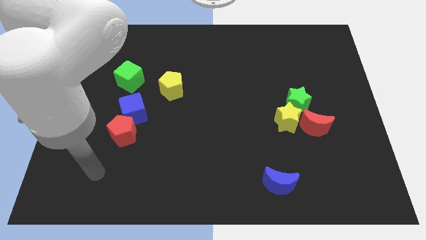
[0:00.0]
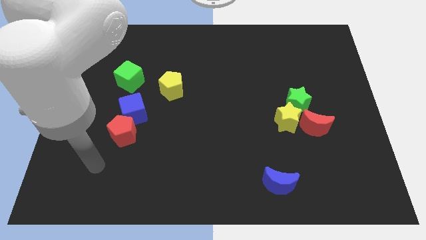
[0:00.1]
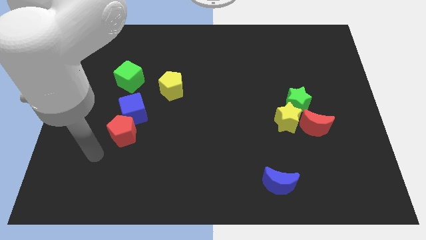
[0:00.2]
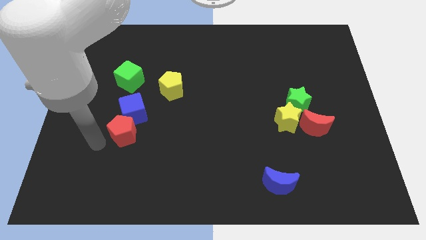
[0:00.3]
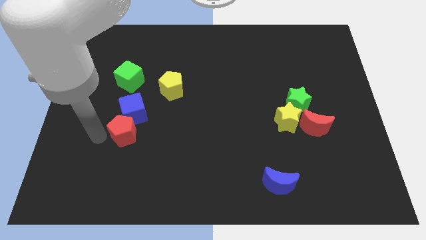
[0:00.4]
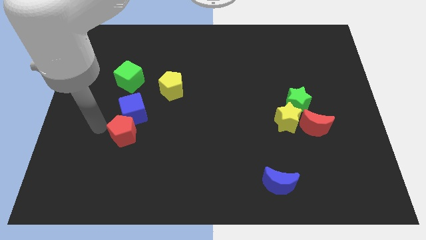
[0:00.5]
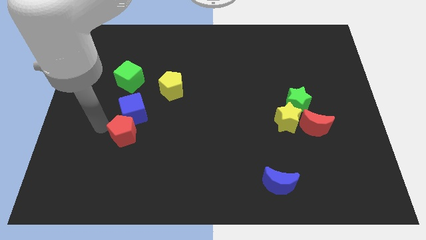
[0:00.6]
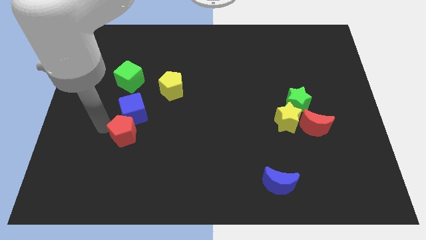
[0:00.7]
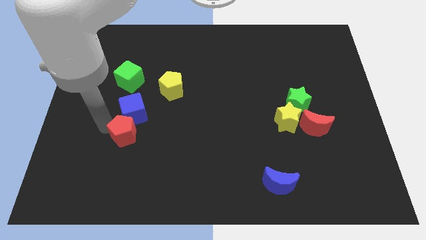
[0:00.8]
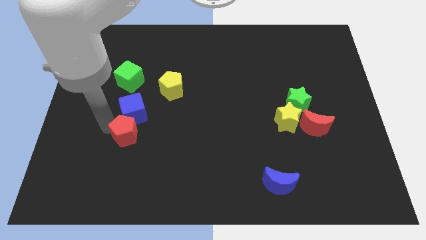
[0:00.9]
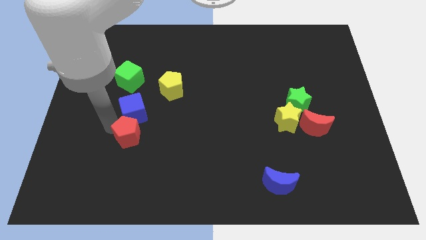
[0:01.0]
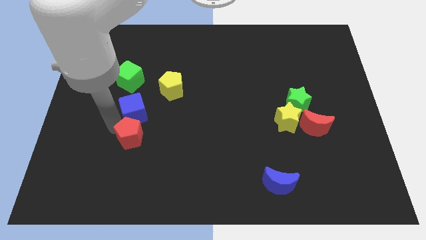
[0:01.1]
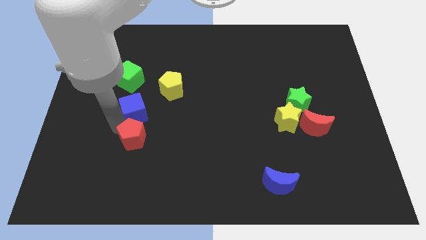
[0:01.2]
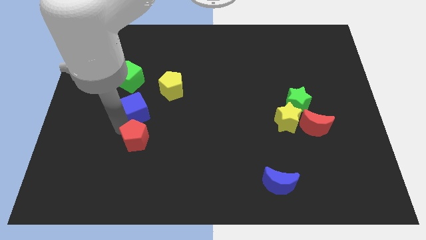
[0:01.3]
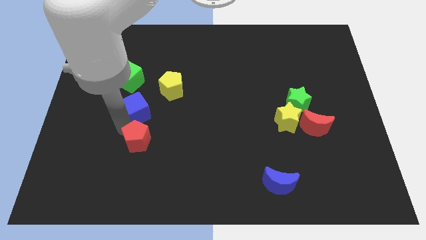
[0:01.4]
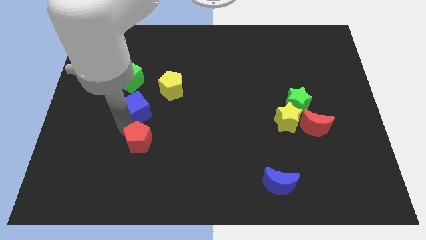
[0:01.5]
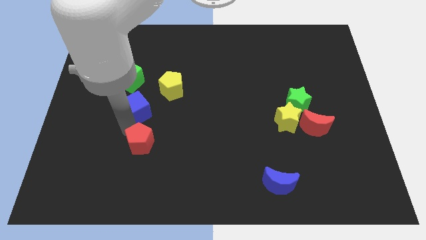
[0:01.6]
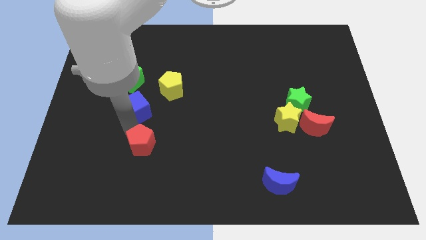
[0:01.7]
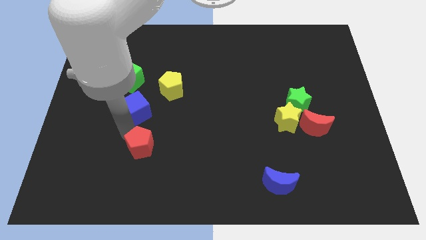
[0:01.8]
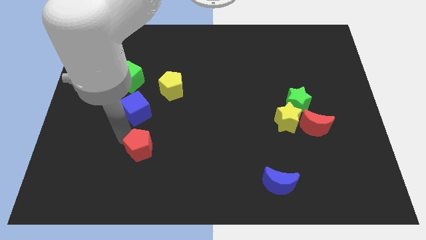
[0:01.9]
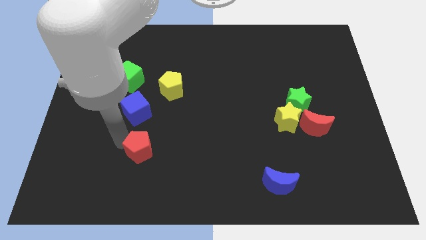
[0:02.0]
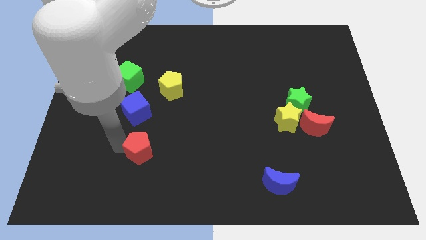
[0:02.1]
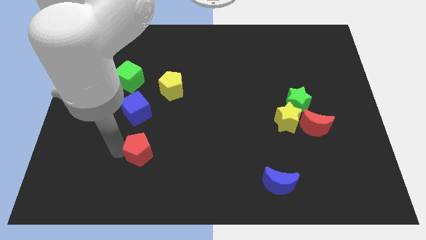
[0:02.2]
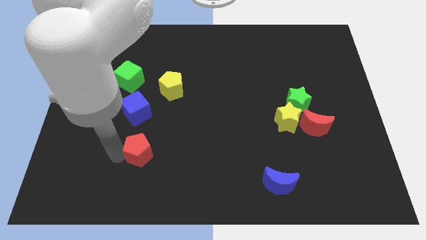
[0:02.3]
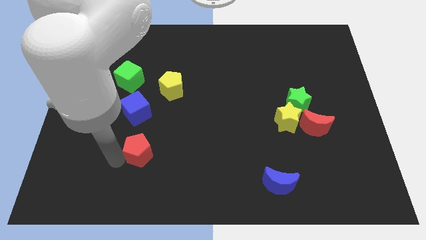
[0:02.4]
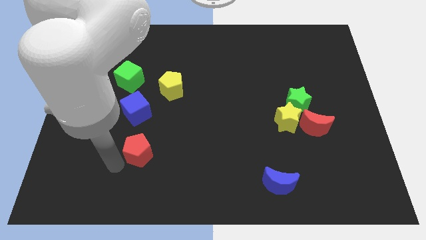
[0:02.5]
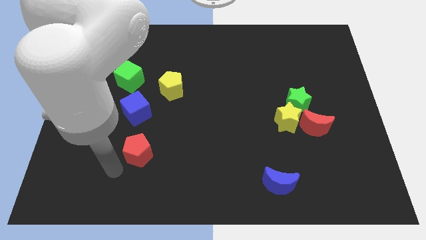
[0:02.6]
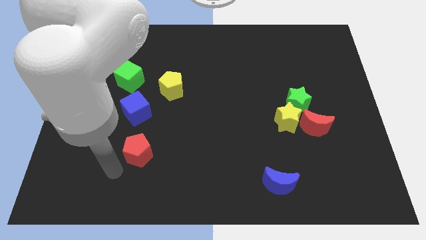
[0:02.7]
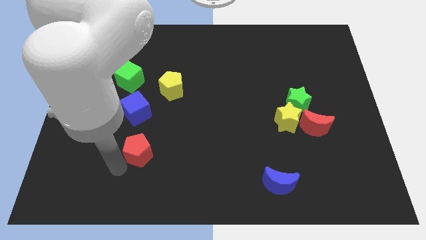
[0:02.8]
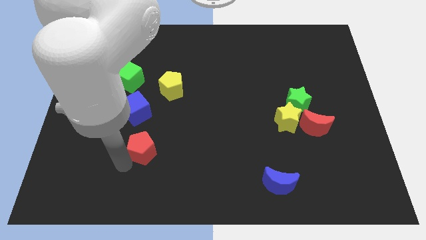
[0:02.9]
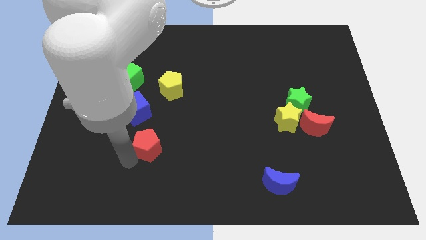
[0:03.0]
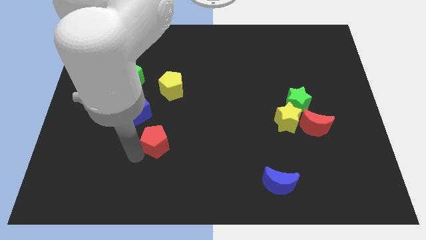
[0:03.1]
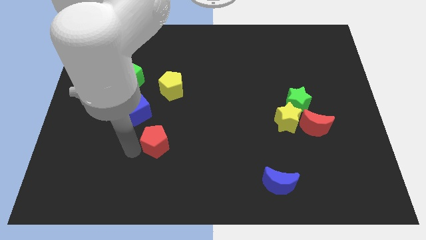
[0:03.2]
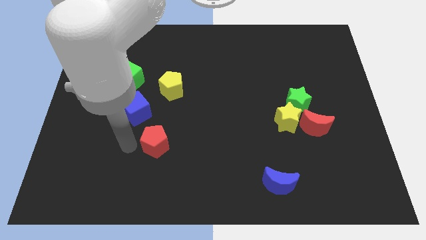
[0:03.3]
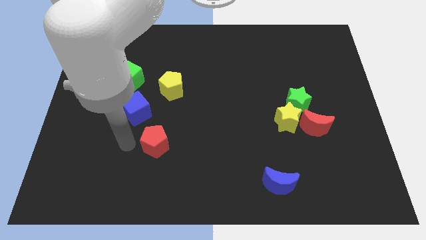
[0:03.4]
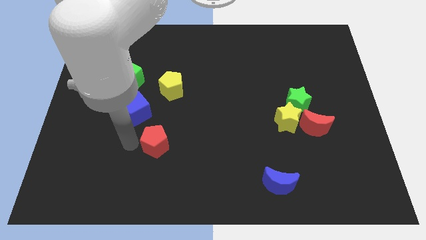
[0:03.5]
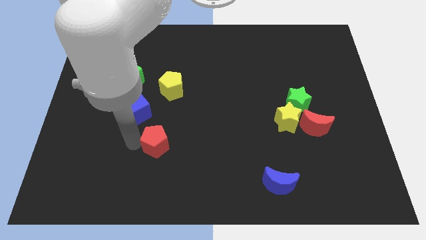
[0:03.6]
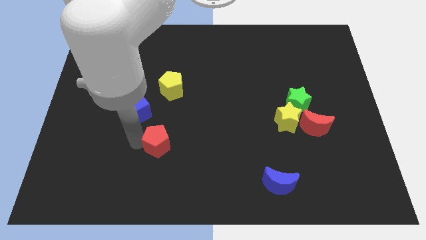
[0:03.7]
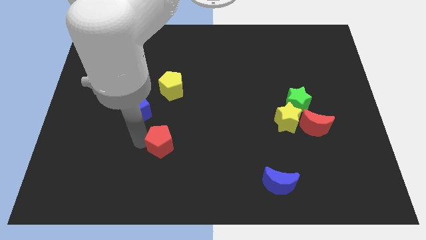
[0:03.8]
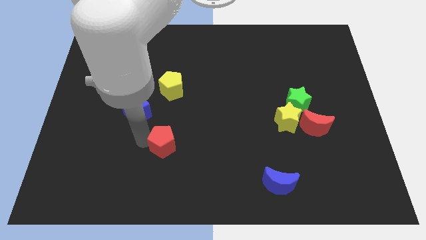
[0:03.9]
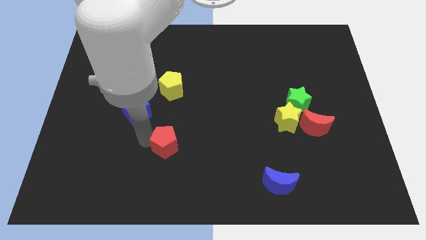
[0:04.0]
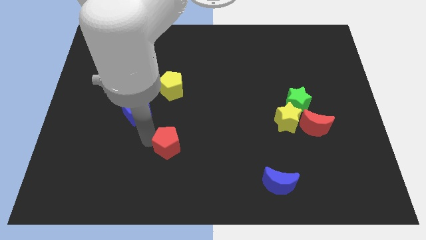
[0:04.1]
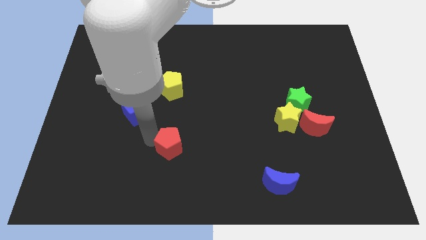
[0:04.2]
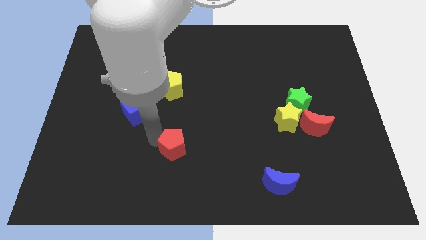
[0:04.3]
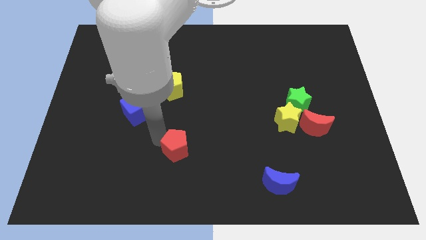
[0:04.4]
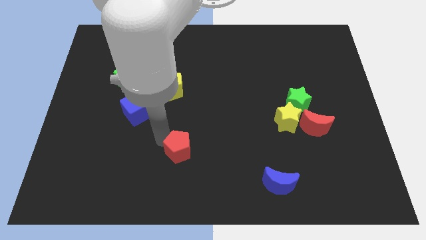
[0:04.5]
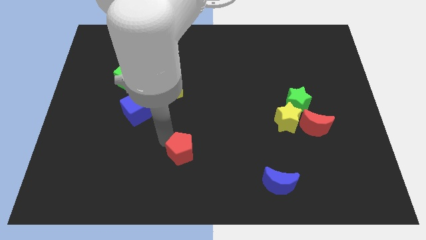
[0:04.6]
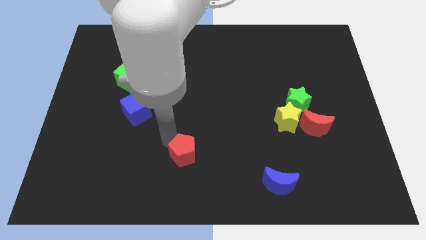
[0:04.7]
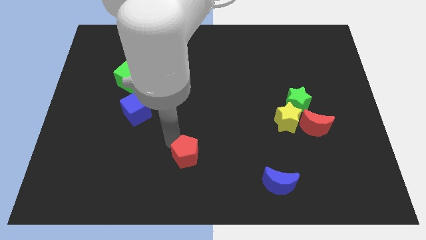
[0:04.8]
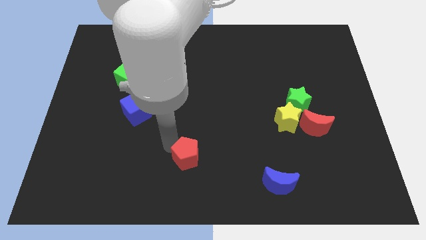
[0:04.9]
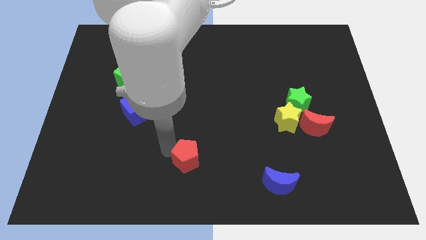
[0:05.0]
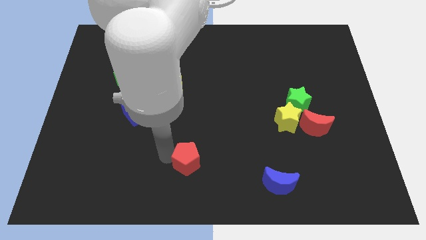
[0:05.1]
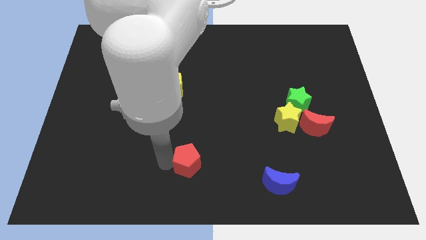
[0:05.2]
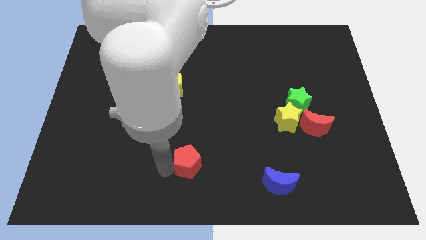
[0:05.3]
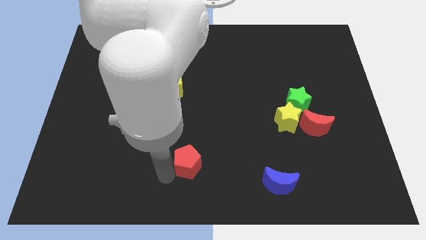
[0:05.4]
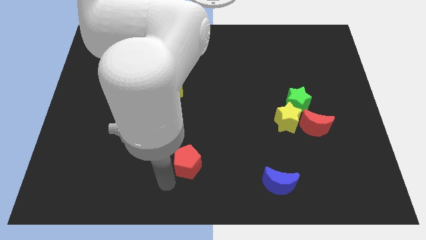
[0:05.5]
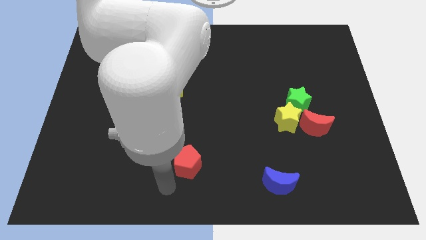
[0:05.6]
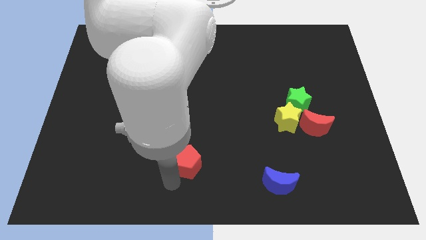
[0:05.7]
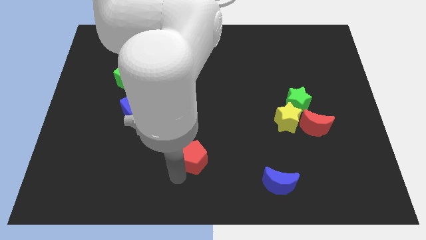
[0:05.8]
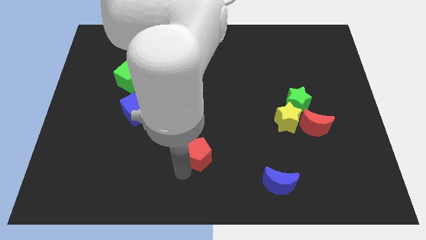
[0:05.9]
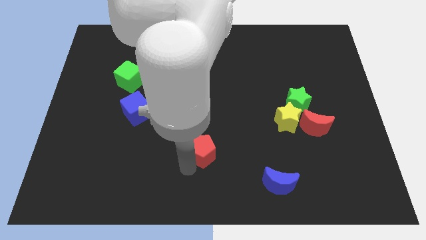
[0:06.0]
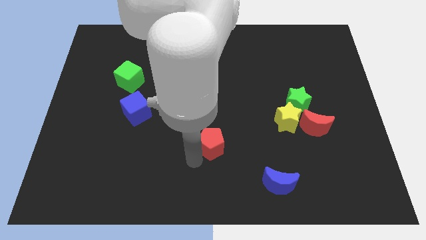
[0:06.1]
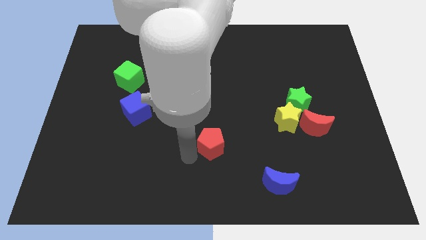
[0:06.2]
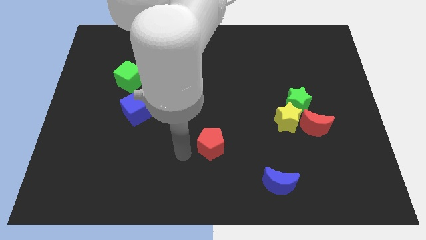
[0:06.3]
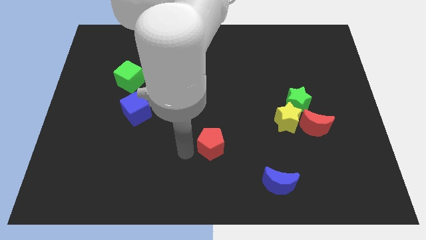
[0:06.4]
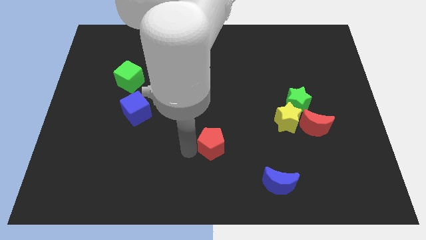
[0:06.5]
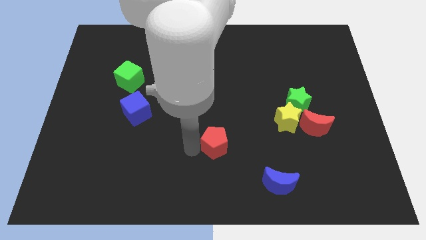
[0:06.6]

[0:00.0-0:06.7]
push the red pentagon right

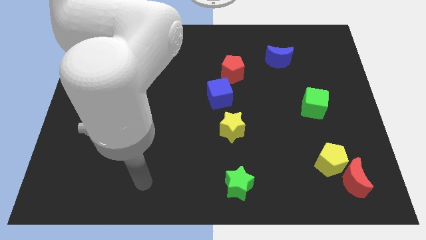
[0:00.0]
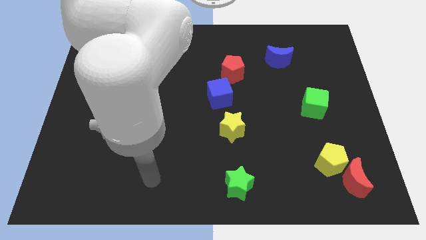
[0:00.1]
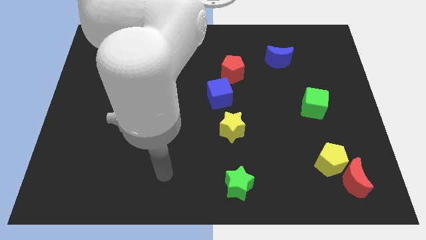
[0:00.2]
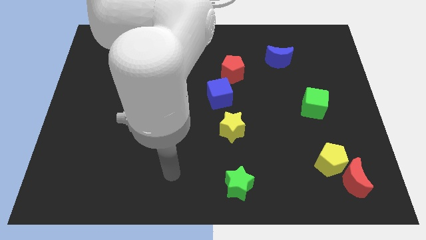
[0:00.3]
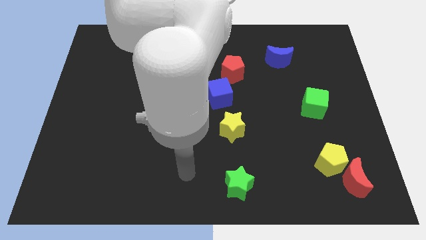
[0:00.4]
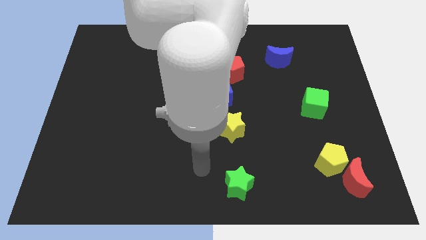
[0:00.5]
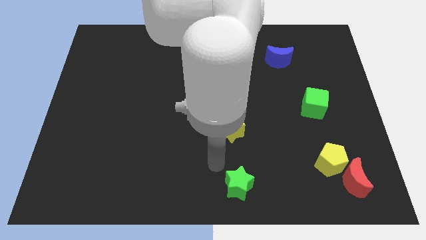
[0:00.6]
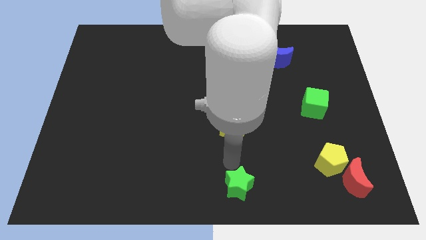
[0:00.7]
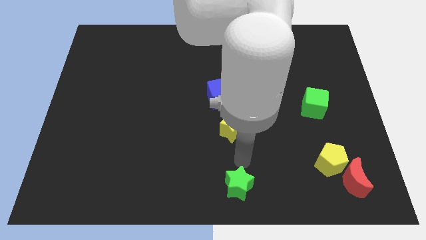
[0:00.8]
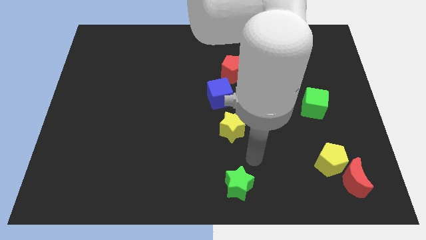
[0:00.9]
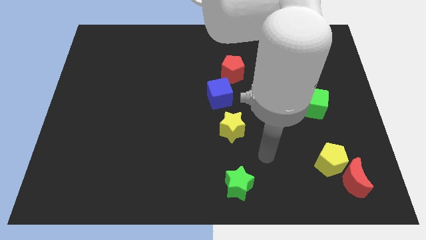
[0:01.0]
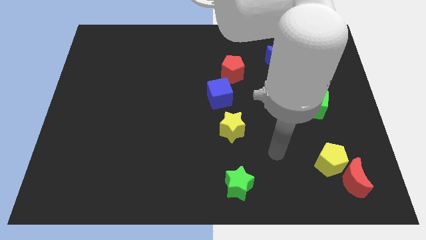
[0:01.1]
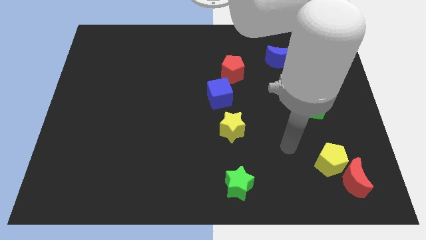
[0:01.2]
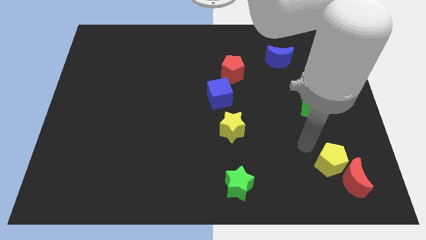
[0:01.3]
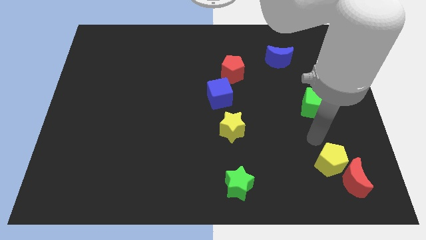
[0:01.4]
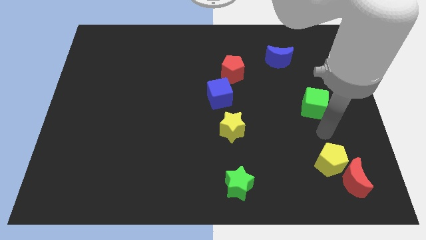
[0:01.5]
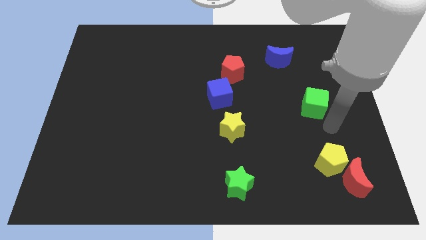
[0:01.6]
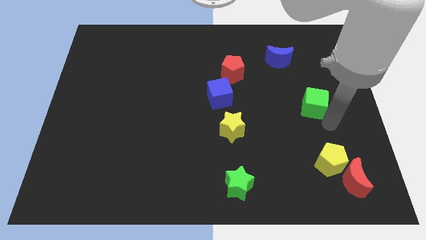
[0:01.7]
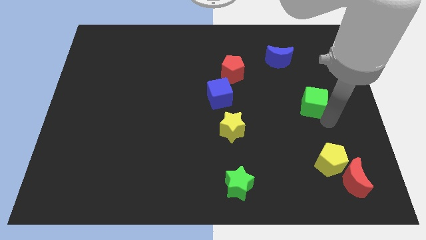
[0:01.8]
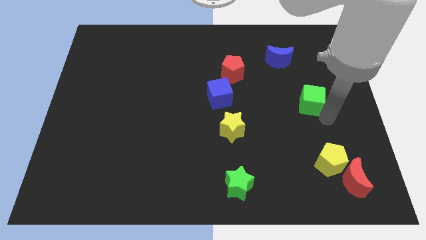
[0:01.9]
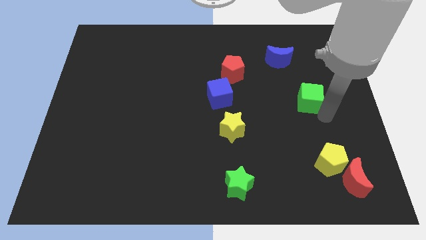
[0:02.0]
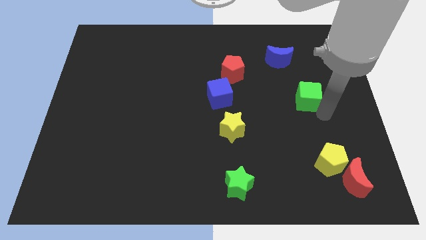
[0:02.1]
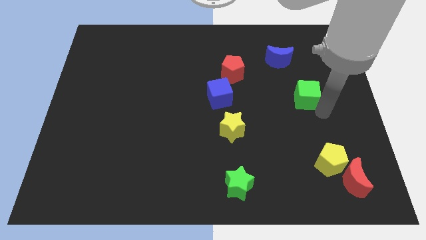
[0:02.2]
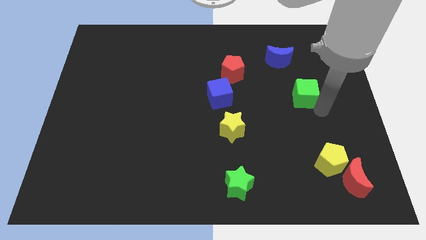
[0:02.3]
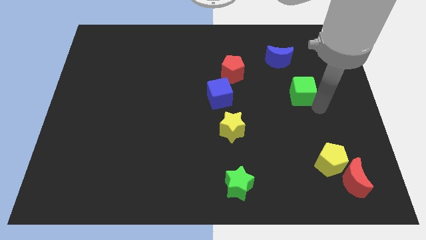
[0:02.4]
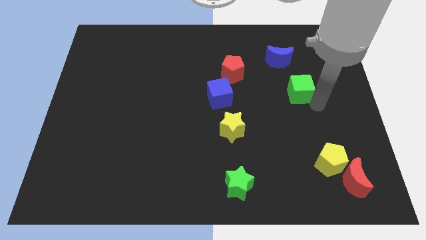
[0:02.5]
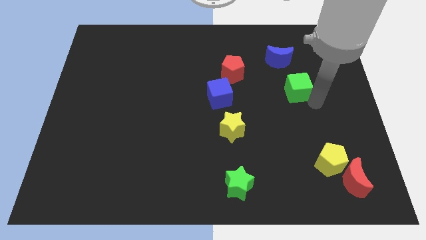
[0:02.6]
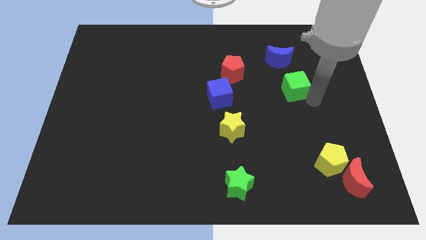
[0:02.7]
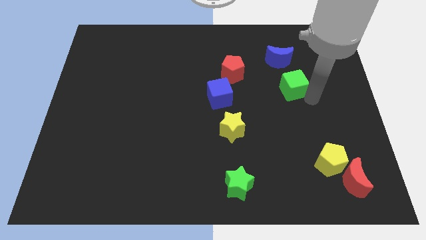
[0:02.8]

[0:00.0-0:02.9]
slide the green cube a little bit up and then to the left
